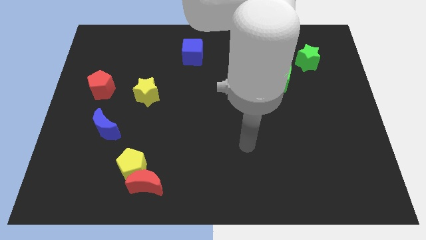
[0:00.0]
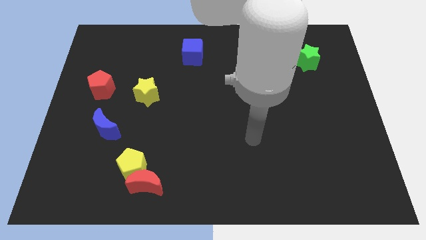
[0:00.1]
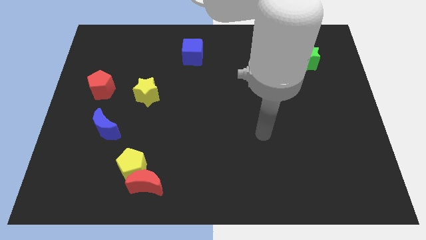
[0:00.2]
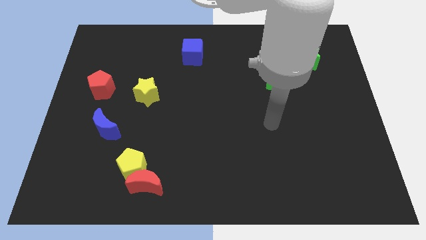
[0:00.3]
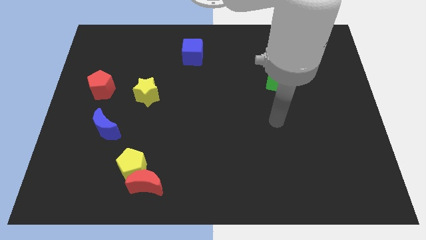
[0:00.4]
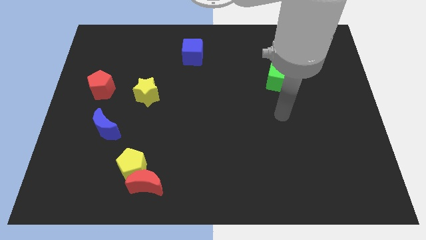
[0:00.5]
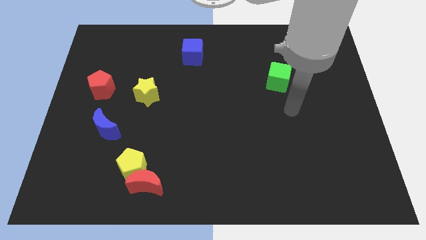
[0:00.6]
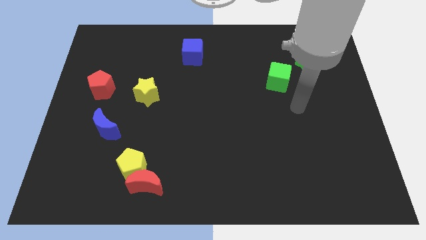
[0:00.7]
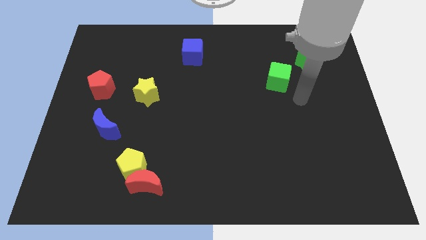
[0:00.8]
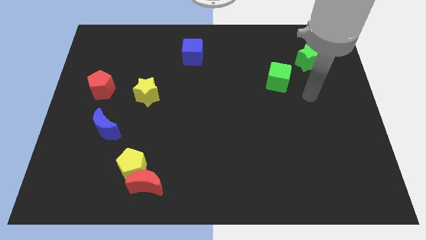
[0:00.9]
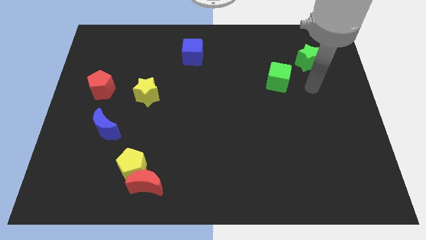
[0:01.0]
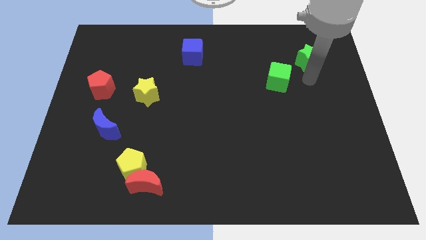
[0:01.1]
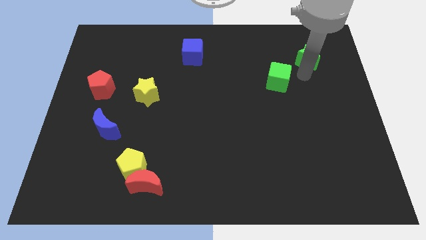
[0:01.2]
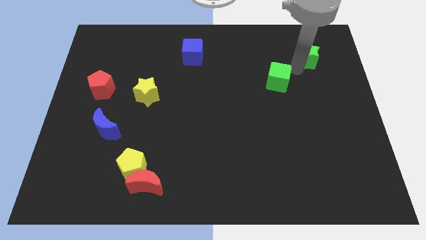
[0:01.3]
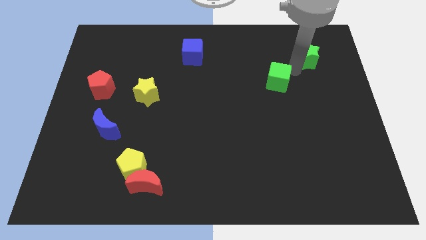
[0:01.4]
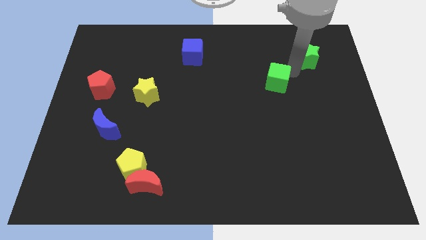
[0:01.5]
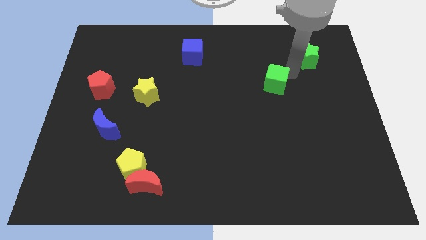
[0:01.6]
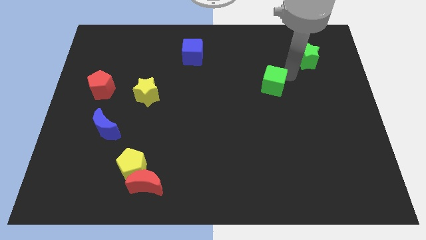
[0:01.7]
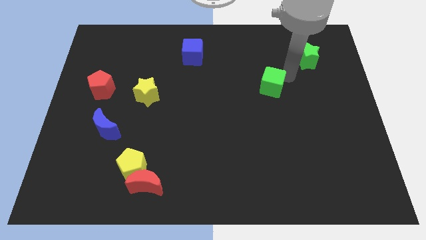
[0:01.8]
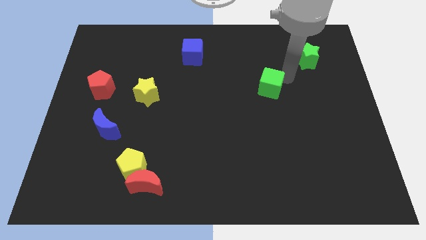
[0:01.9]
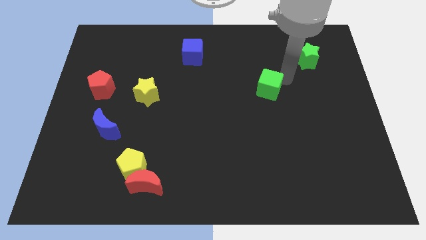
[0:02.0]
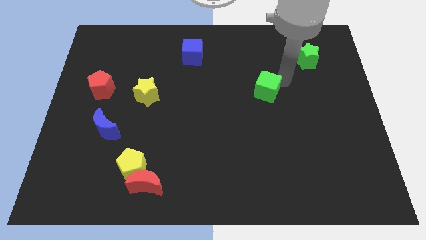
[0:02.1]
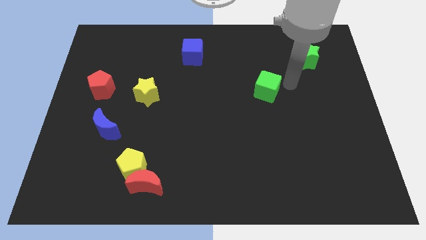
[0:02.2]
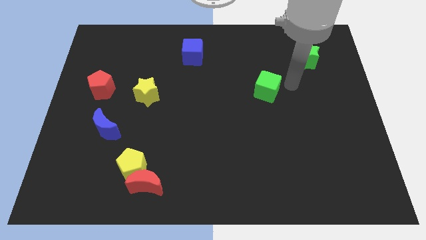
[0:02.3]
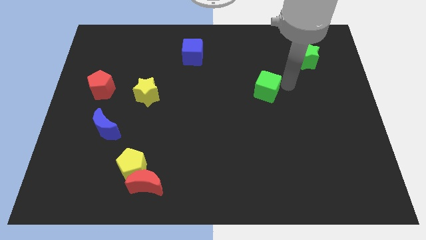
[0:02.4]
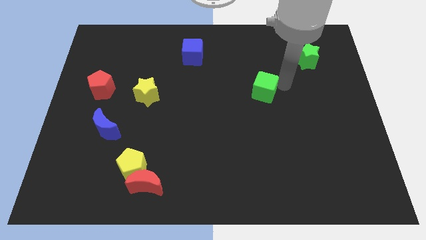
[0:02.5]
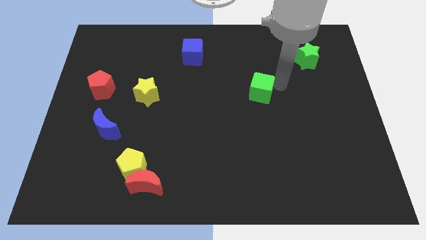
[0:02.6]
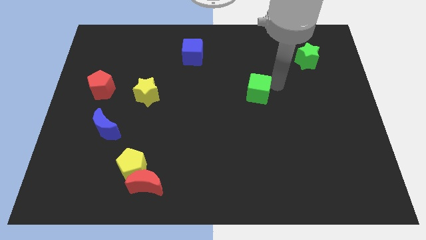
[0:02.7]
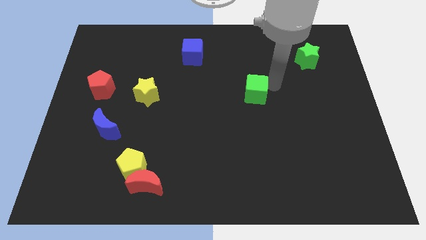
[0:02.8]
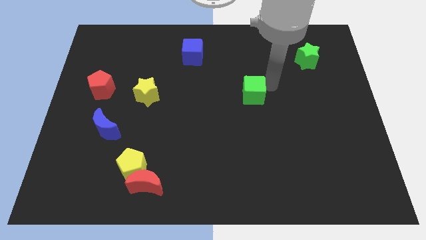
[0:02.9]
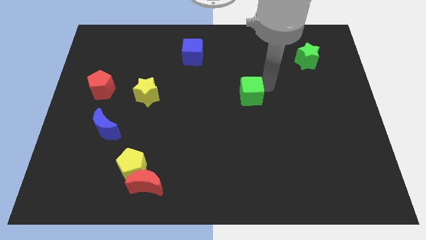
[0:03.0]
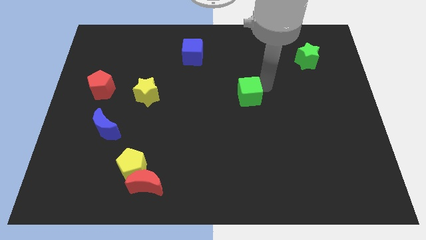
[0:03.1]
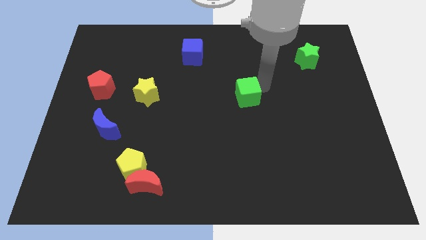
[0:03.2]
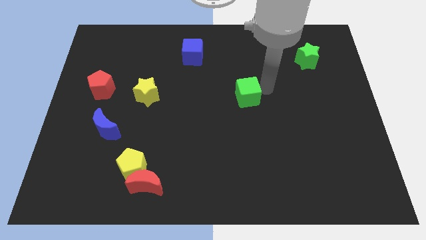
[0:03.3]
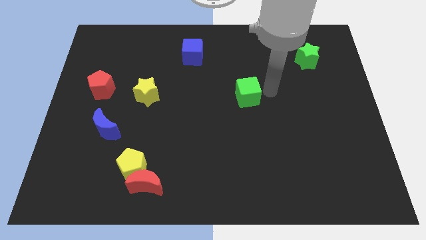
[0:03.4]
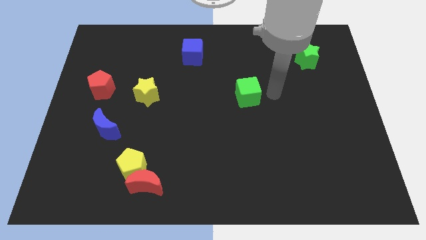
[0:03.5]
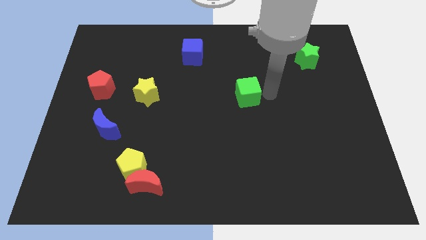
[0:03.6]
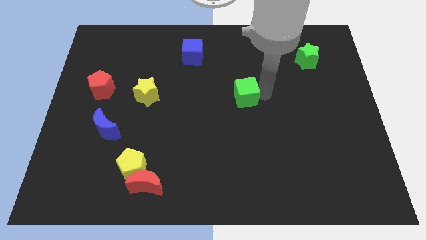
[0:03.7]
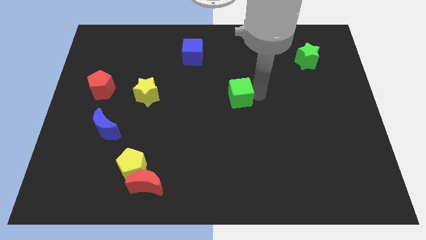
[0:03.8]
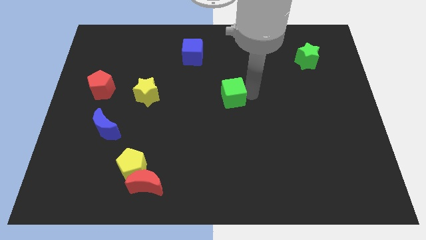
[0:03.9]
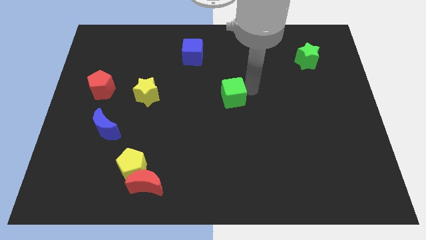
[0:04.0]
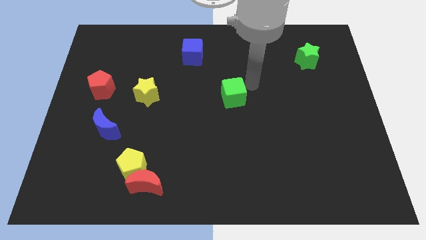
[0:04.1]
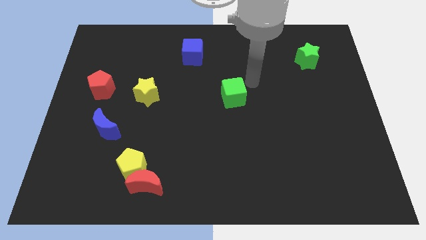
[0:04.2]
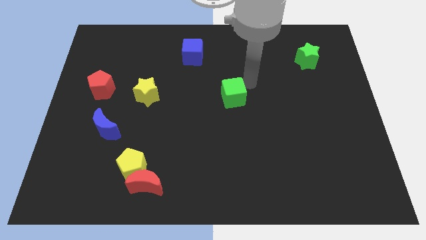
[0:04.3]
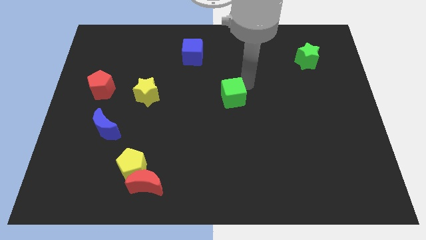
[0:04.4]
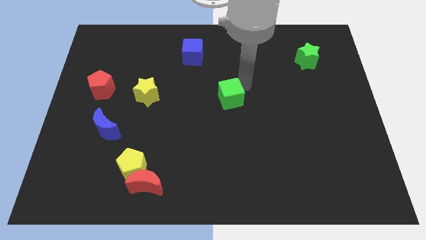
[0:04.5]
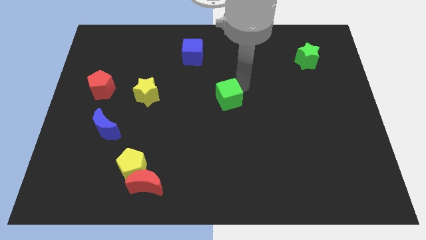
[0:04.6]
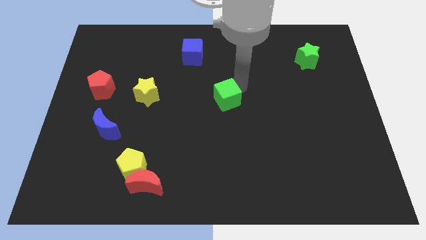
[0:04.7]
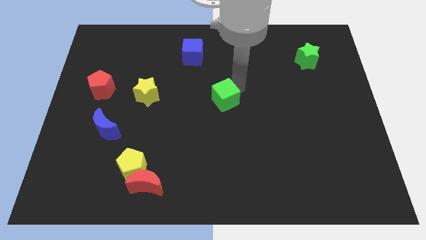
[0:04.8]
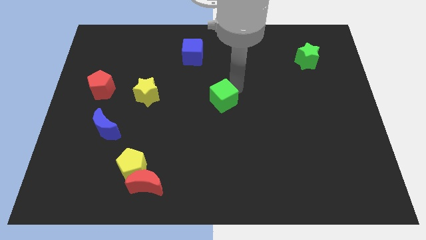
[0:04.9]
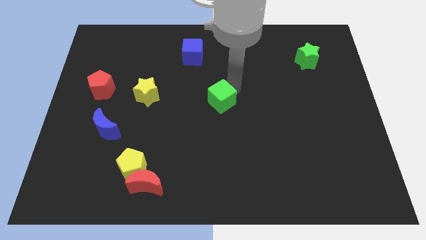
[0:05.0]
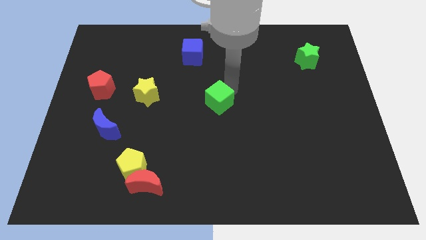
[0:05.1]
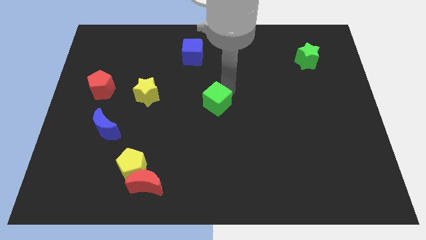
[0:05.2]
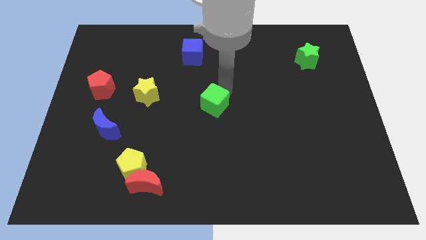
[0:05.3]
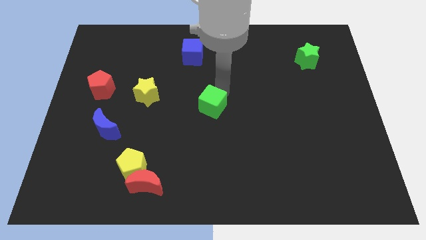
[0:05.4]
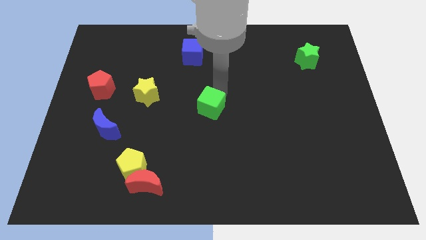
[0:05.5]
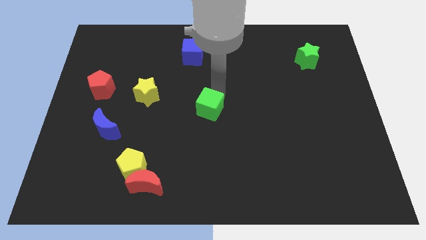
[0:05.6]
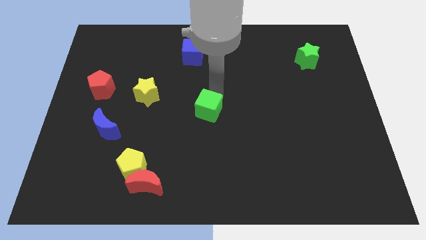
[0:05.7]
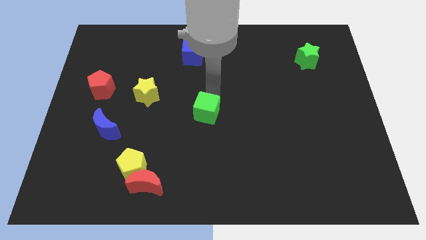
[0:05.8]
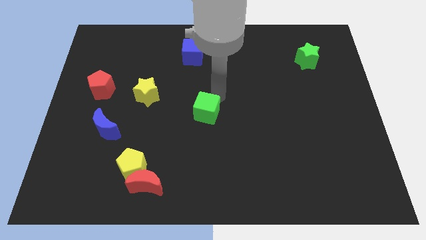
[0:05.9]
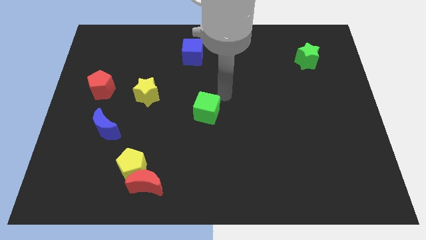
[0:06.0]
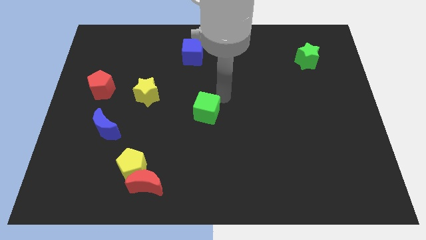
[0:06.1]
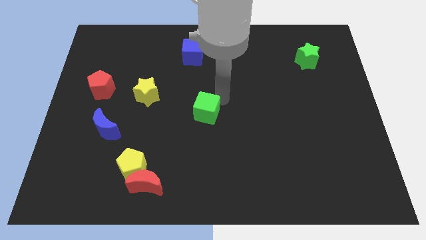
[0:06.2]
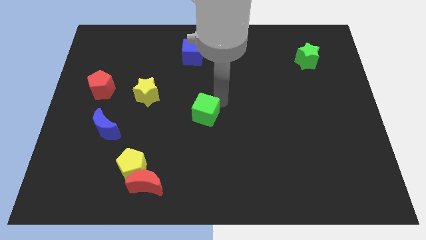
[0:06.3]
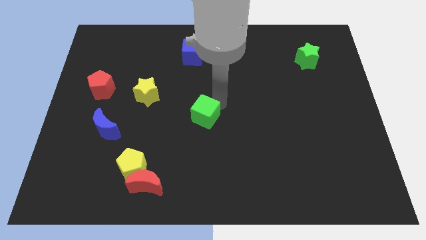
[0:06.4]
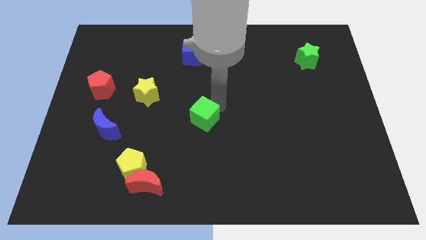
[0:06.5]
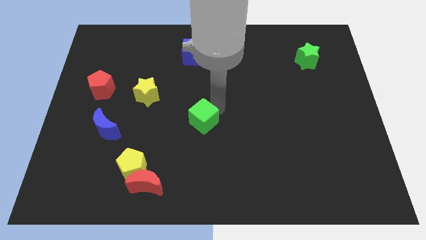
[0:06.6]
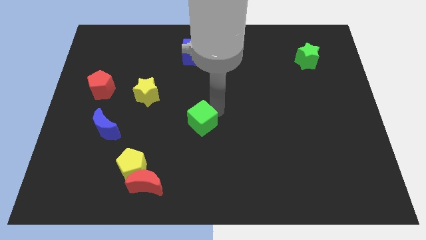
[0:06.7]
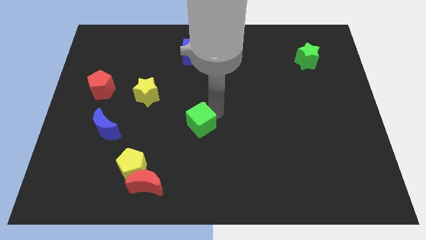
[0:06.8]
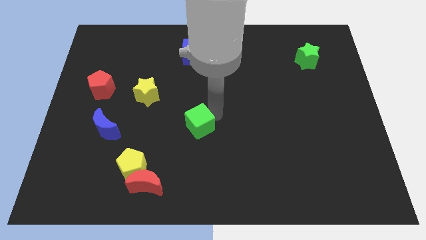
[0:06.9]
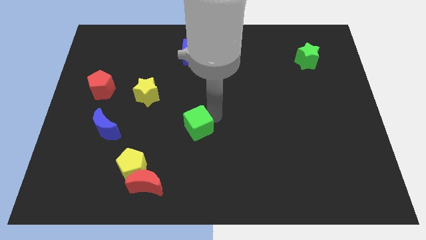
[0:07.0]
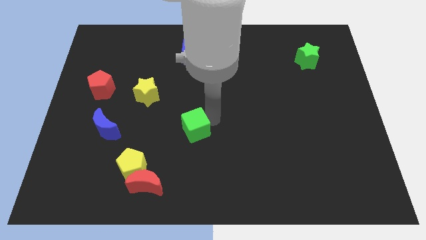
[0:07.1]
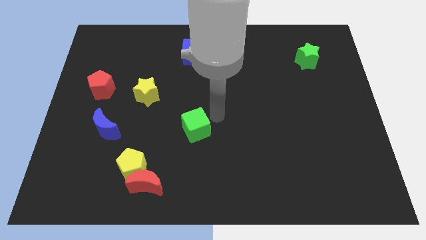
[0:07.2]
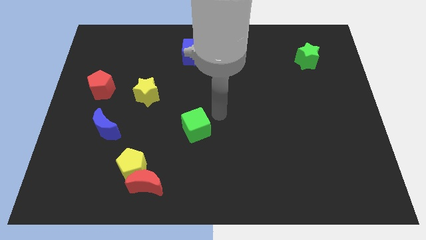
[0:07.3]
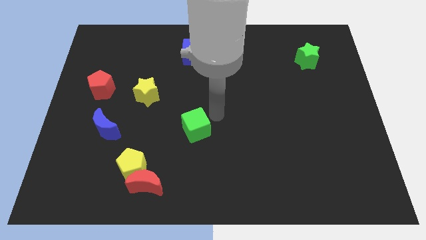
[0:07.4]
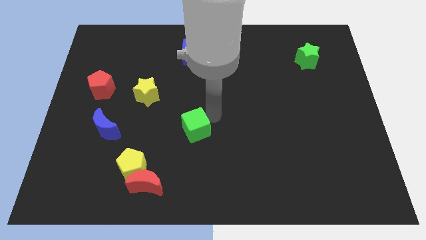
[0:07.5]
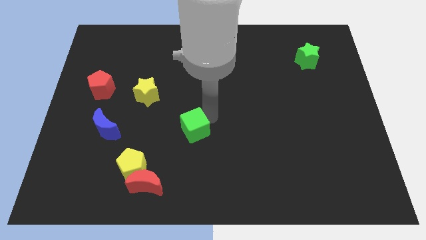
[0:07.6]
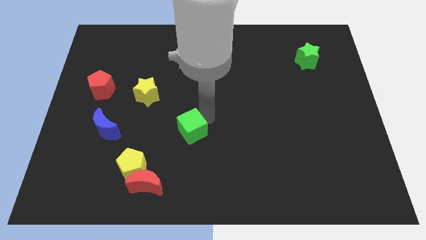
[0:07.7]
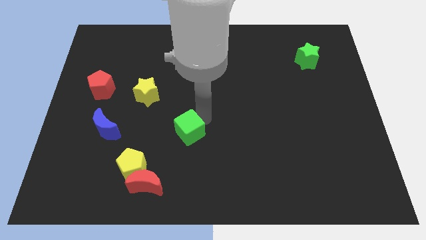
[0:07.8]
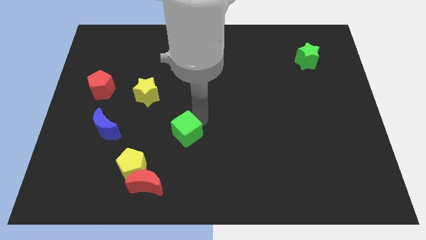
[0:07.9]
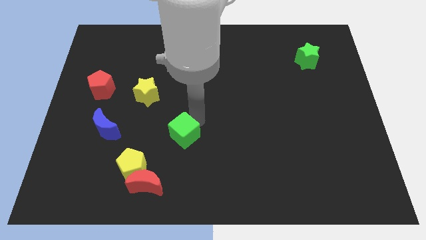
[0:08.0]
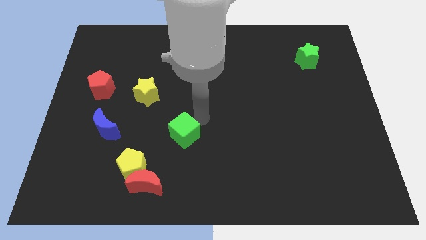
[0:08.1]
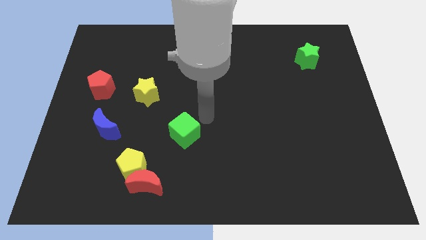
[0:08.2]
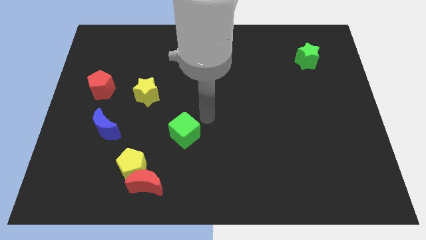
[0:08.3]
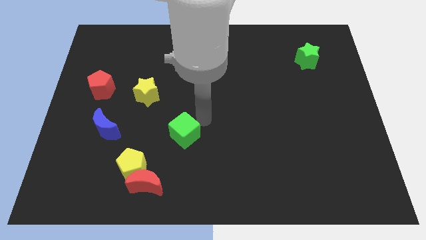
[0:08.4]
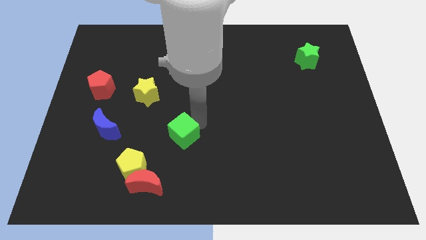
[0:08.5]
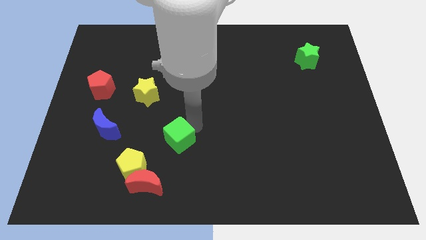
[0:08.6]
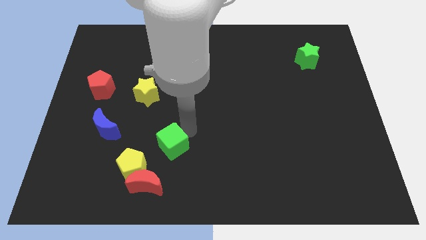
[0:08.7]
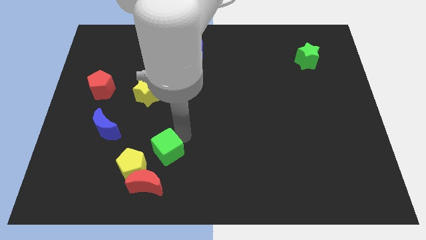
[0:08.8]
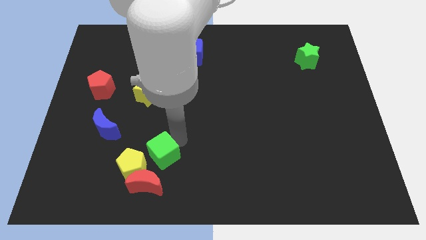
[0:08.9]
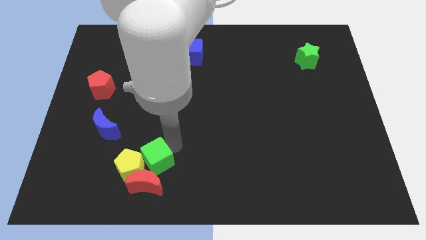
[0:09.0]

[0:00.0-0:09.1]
slide the green cube next to the yellow pentagon
